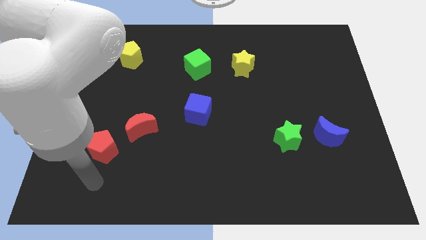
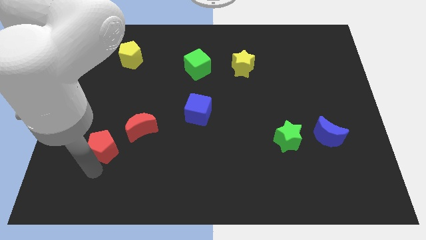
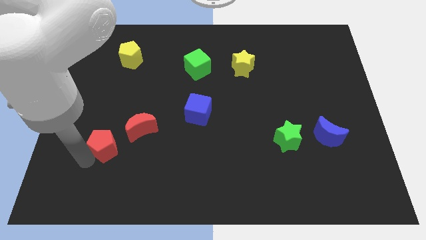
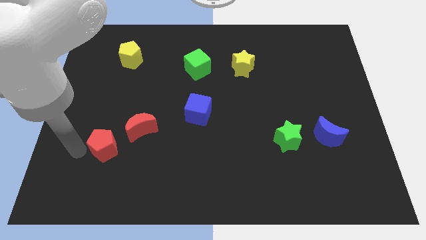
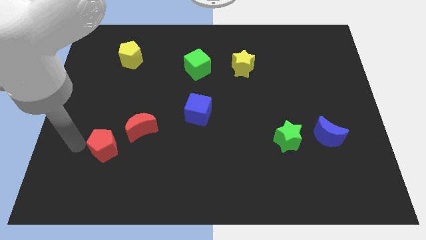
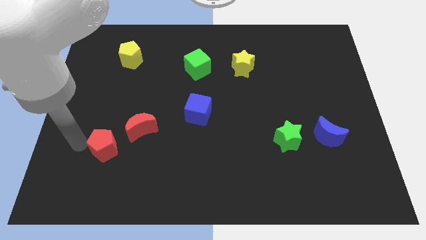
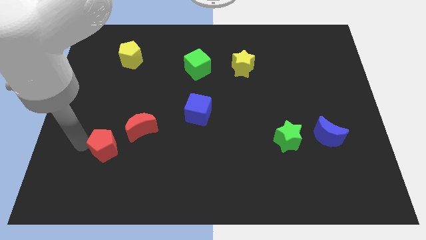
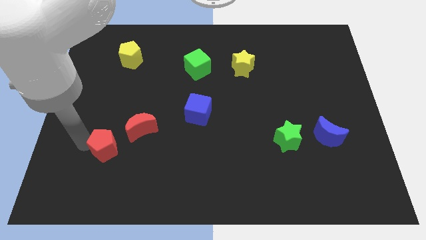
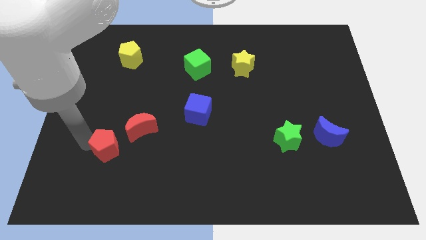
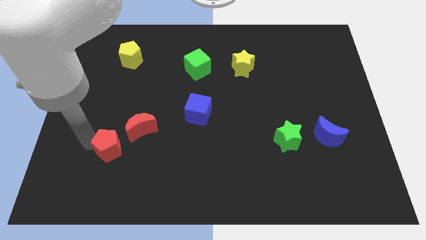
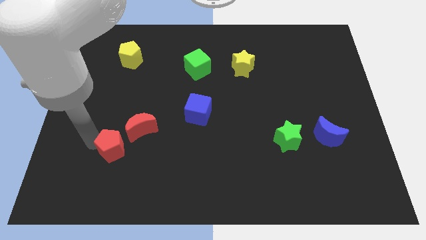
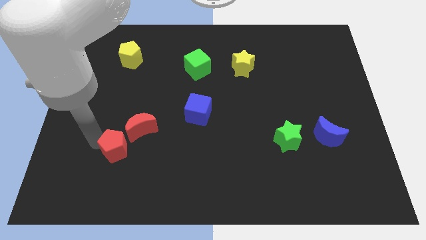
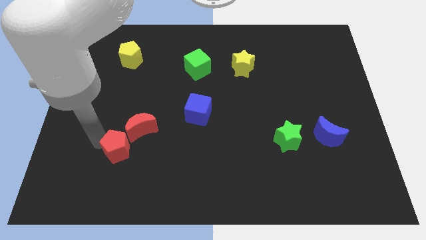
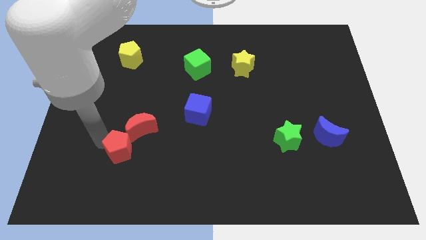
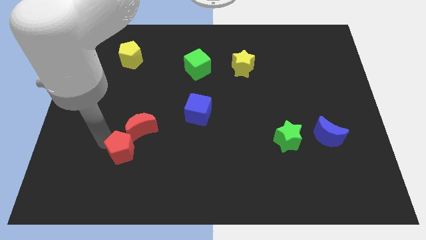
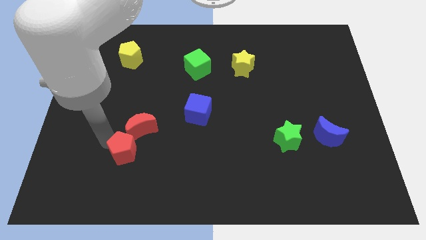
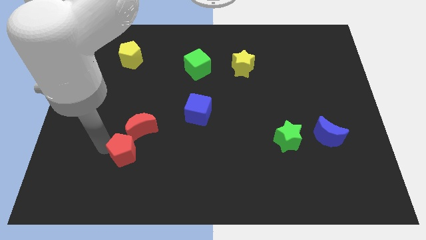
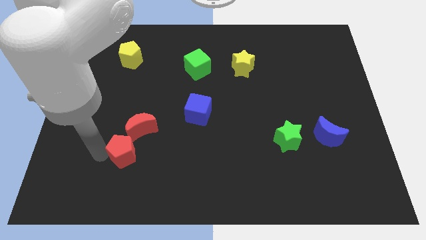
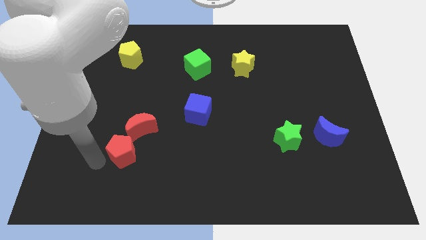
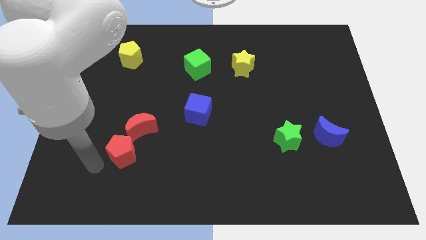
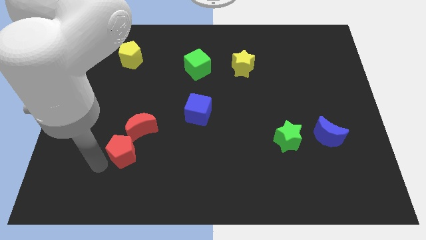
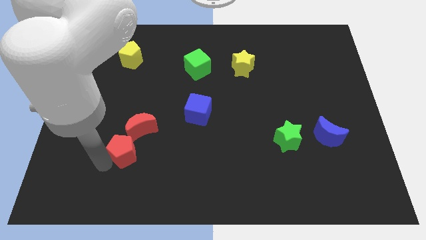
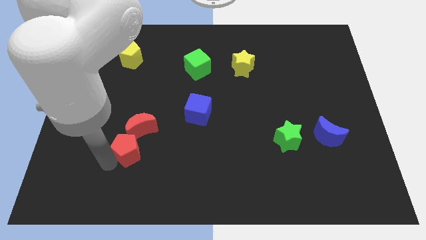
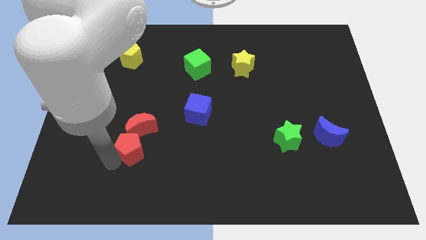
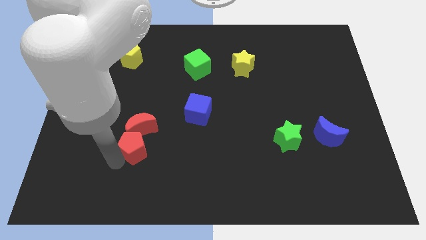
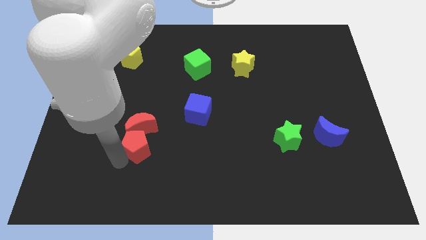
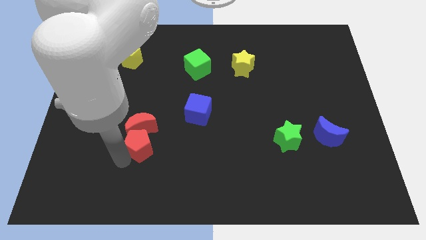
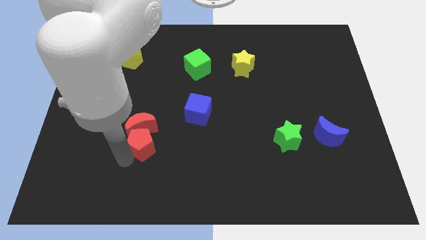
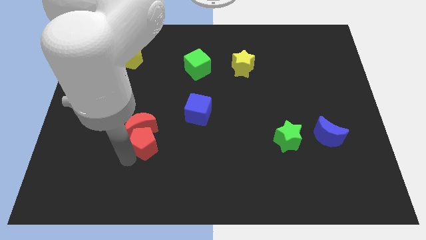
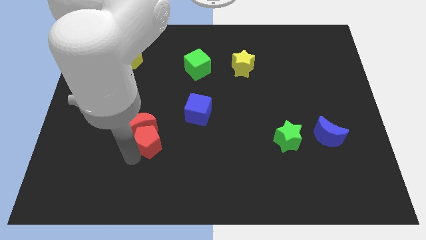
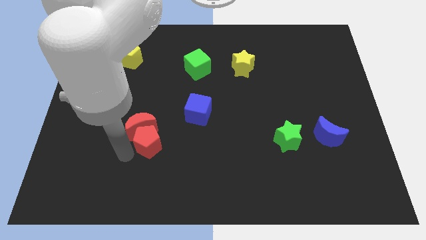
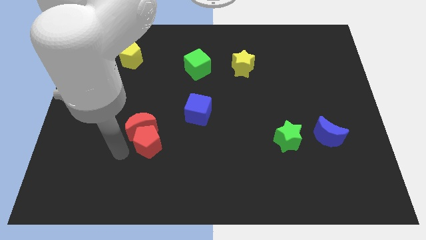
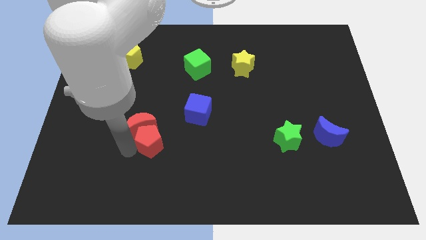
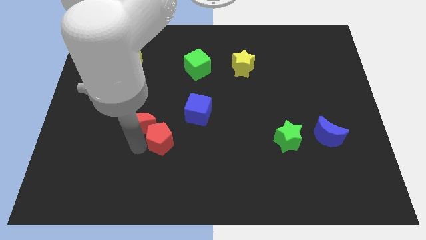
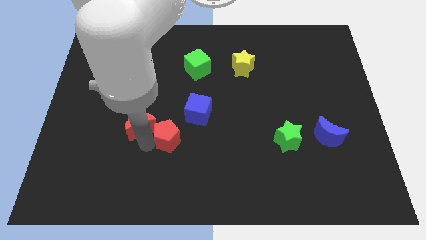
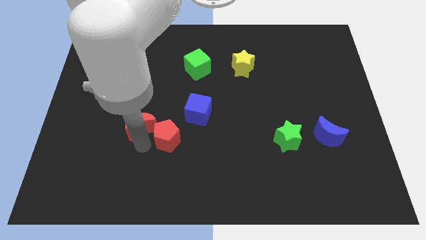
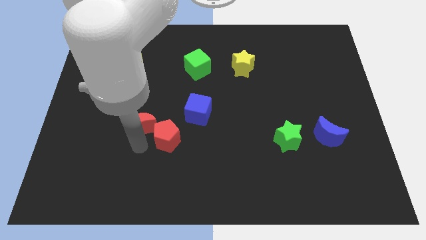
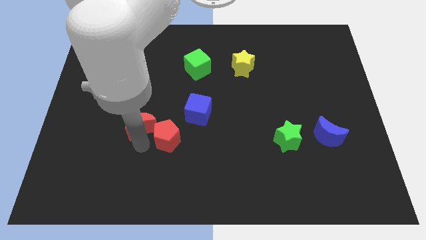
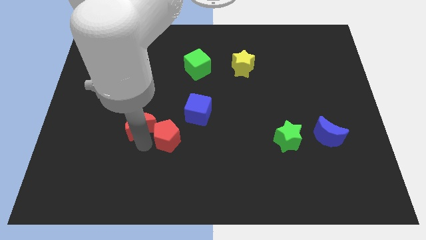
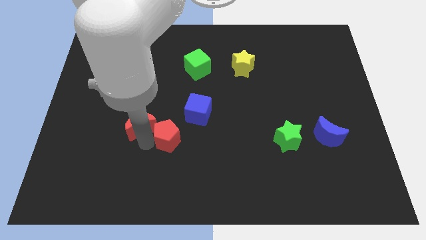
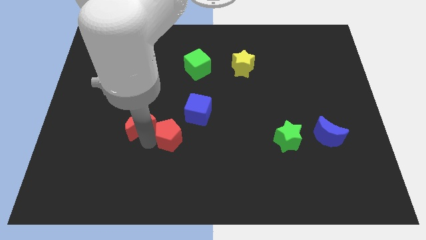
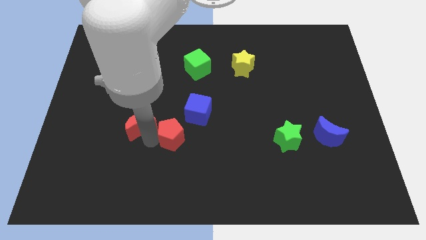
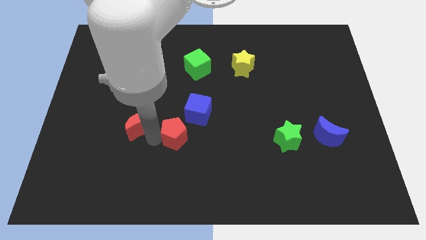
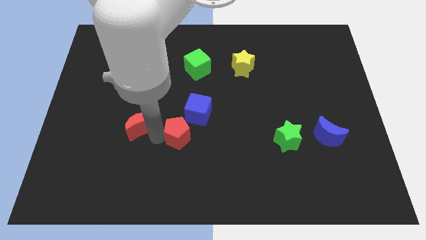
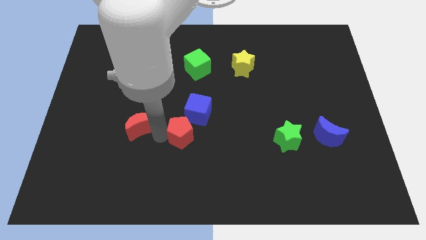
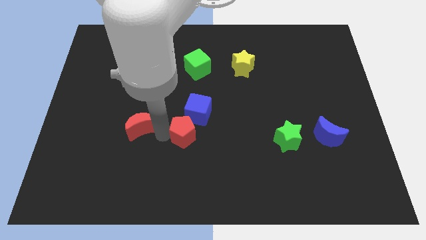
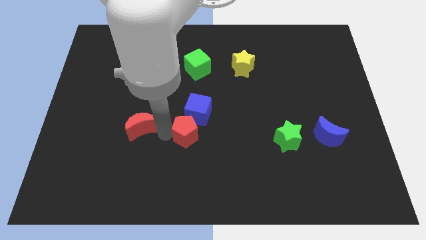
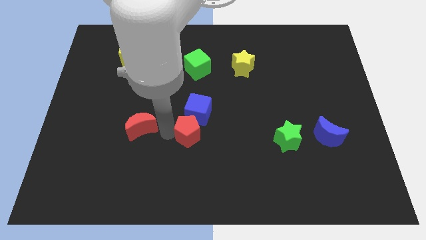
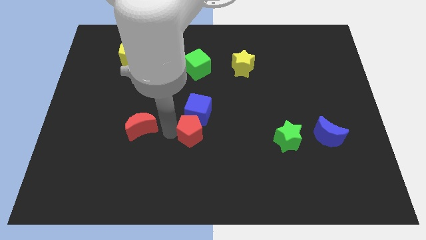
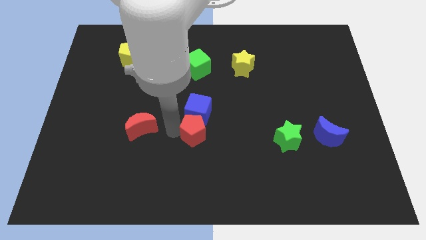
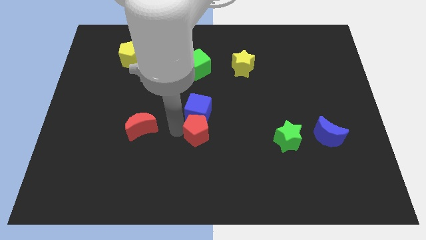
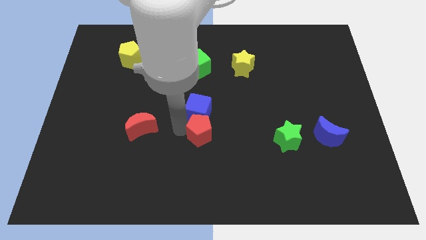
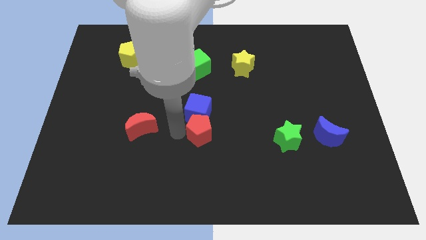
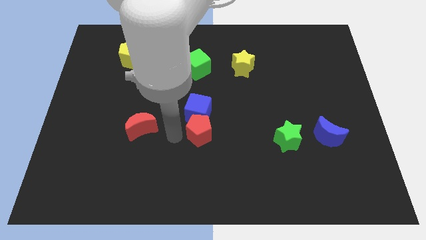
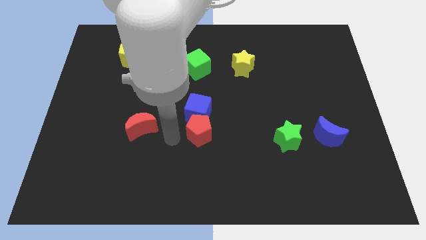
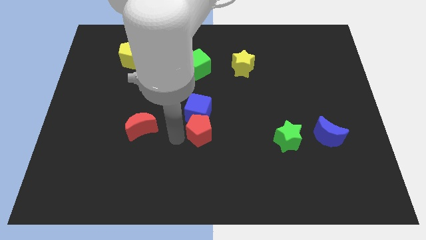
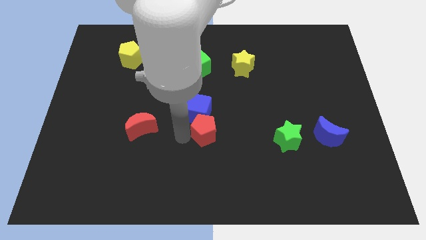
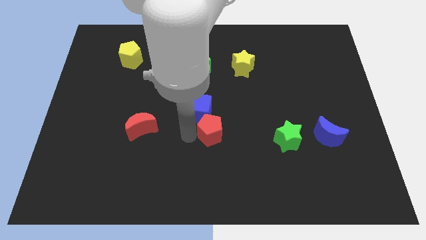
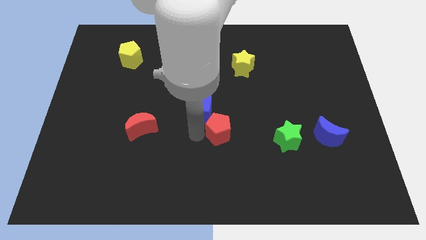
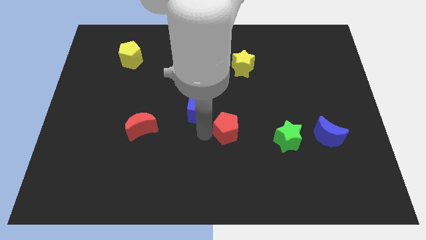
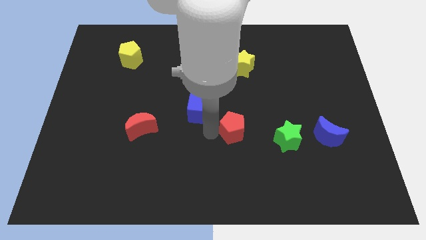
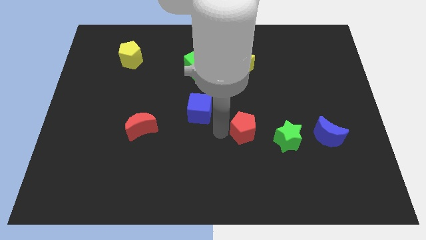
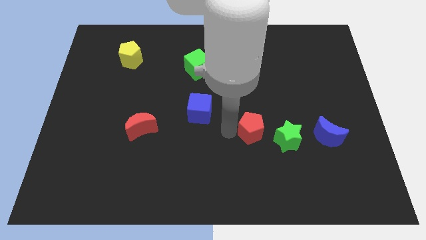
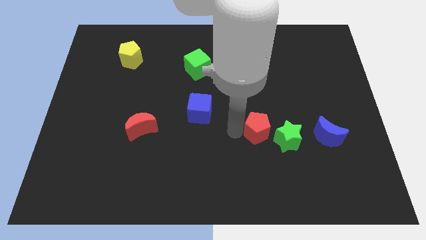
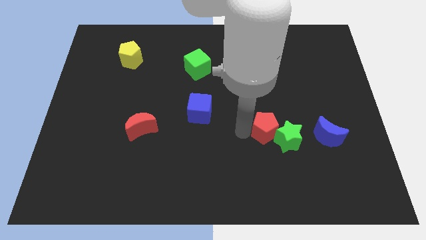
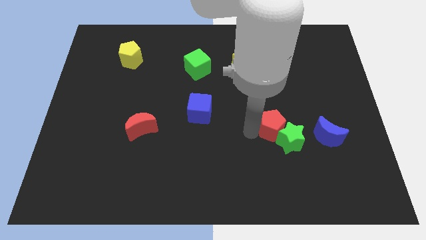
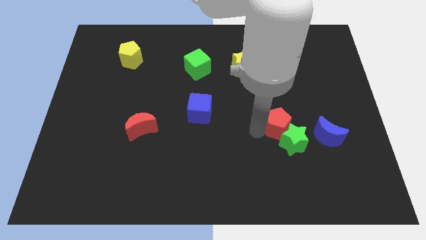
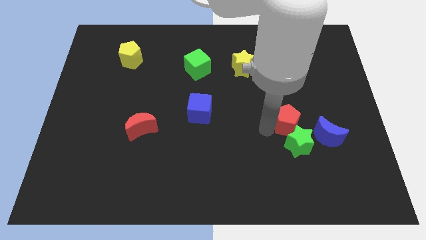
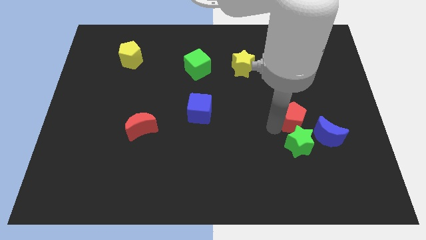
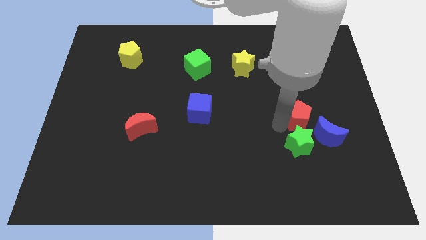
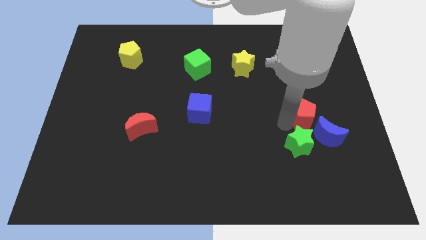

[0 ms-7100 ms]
push the red pentagon to the top side of the blue moon

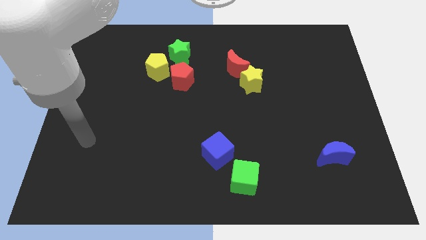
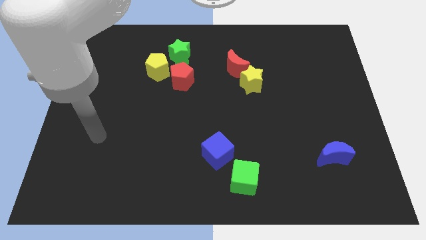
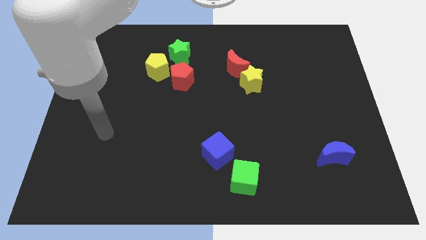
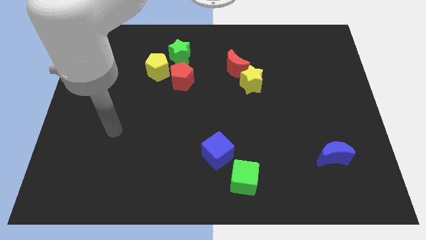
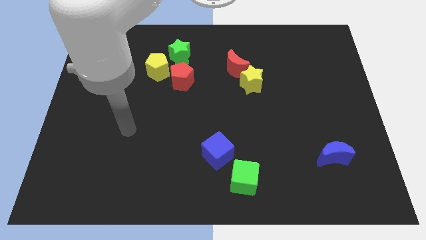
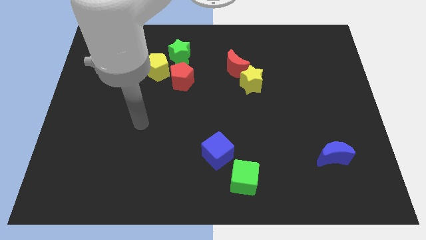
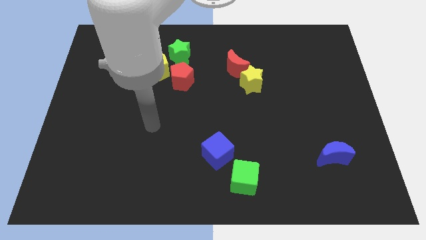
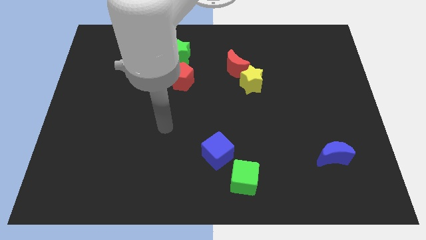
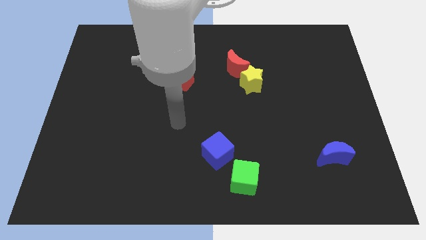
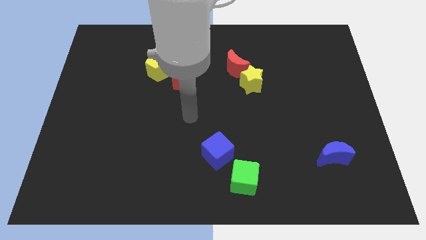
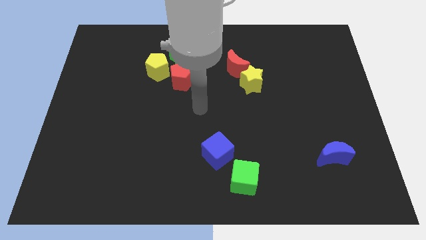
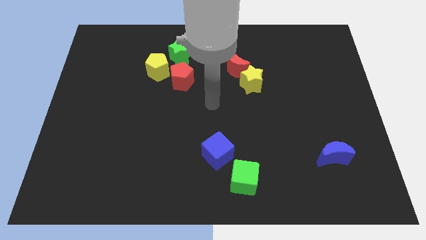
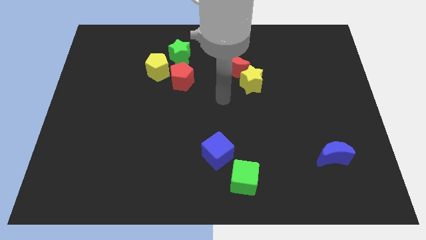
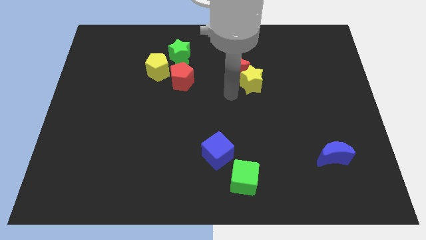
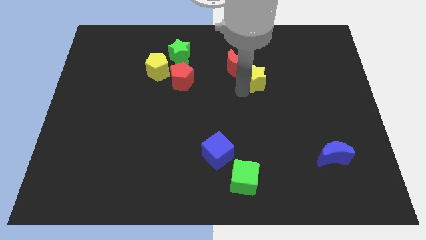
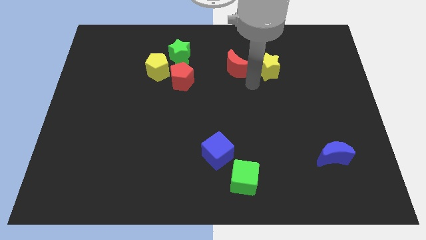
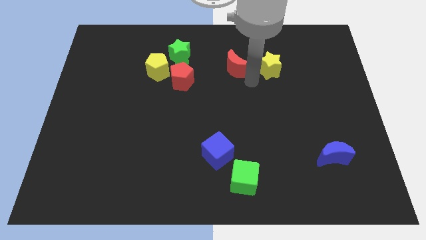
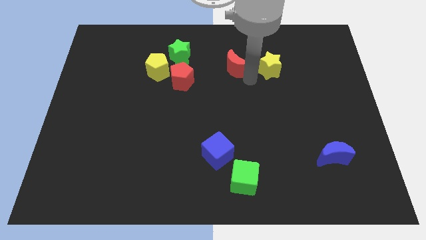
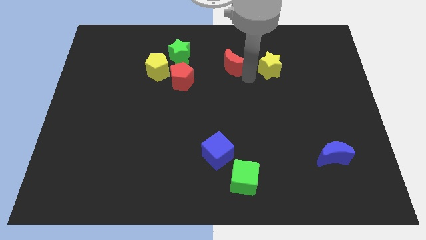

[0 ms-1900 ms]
push the red moon just right of the green star
